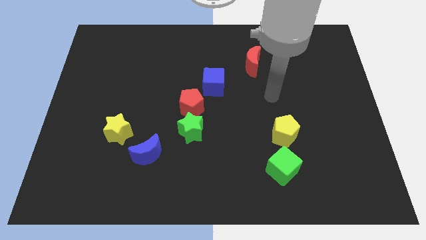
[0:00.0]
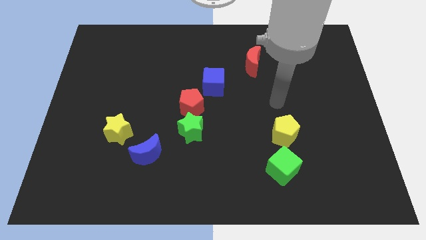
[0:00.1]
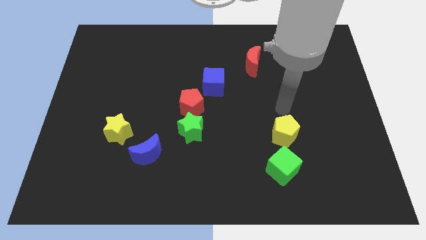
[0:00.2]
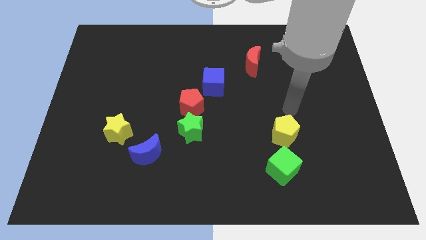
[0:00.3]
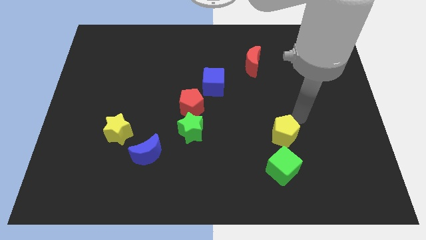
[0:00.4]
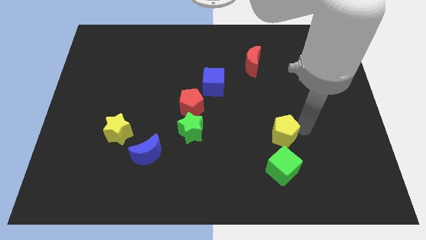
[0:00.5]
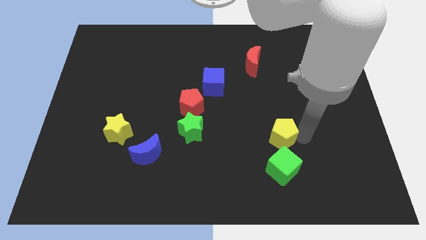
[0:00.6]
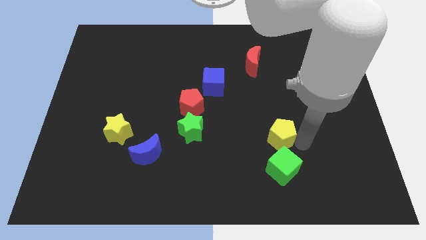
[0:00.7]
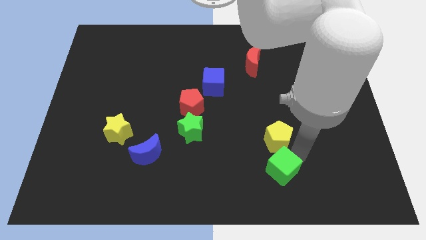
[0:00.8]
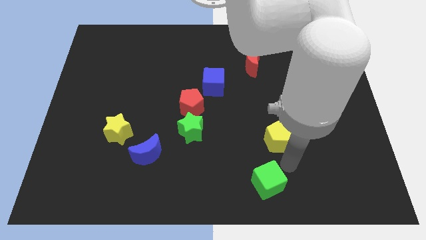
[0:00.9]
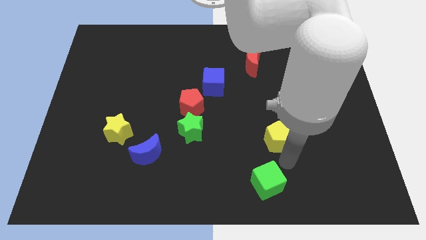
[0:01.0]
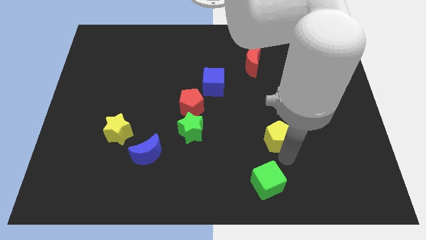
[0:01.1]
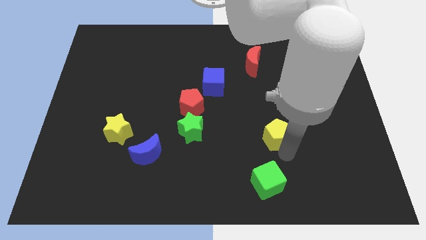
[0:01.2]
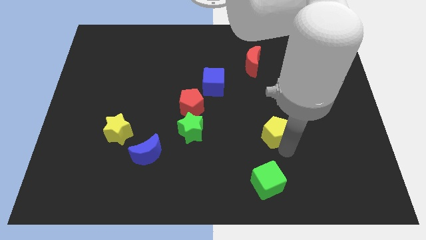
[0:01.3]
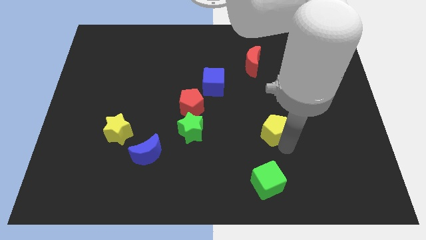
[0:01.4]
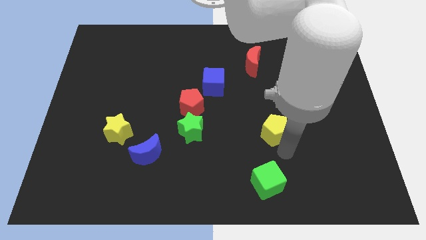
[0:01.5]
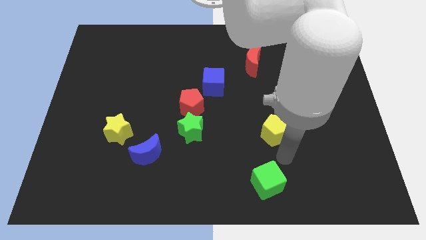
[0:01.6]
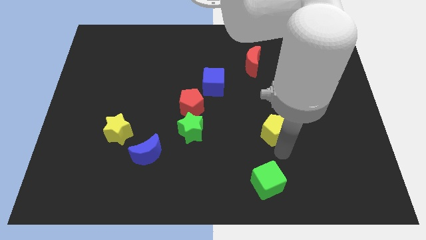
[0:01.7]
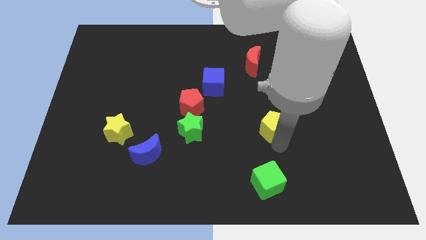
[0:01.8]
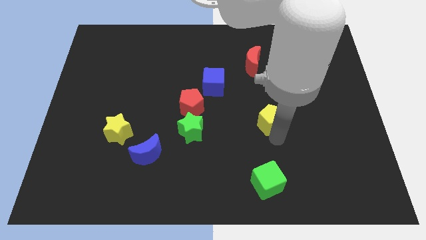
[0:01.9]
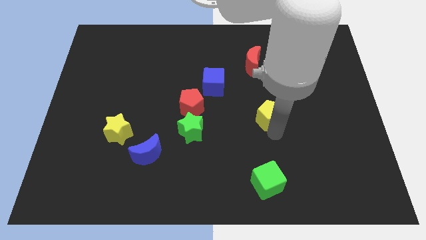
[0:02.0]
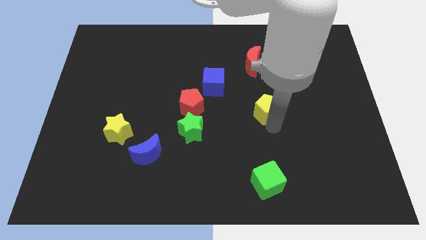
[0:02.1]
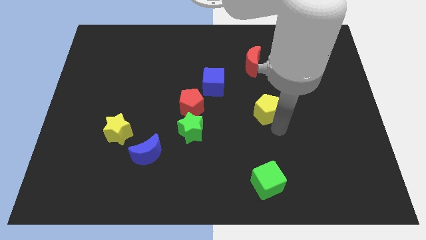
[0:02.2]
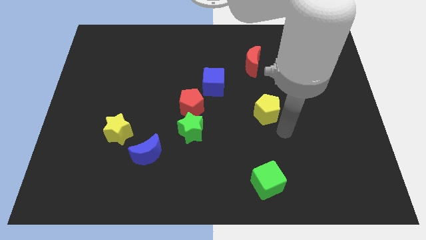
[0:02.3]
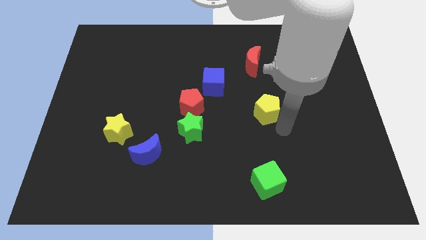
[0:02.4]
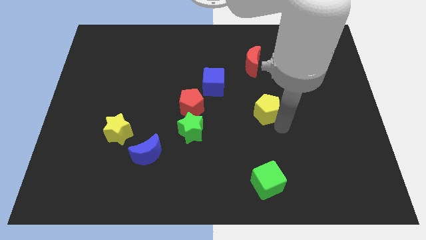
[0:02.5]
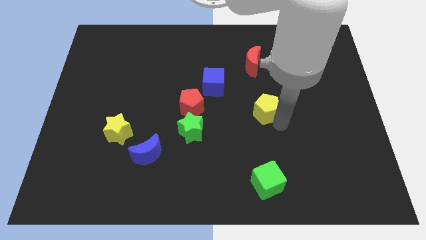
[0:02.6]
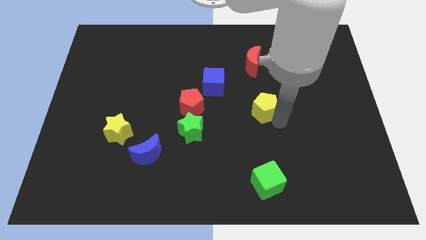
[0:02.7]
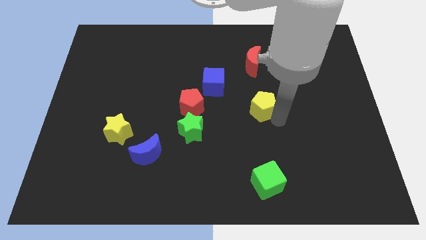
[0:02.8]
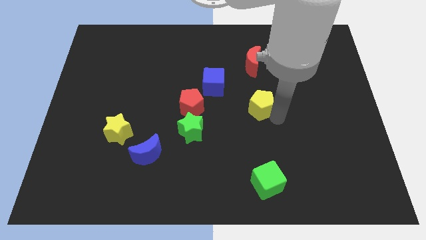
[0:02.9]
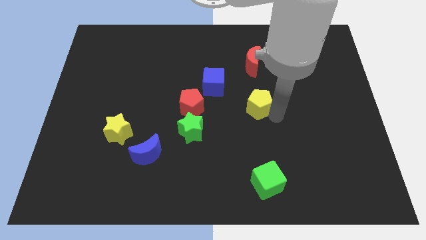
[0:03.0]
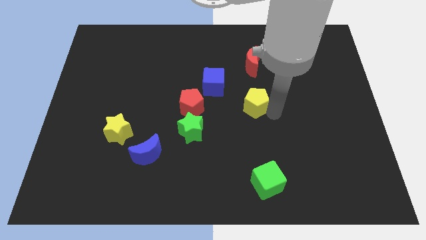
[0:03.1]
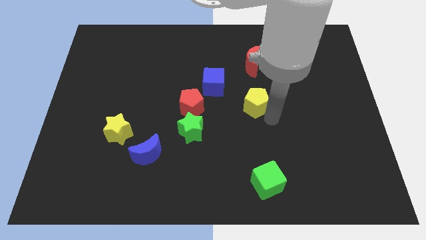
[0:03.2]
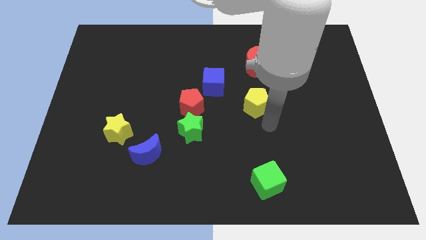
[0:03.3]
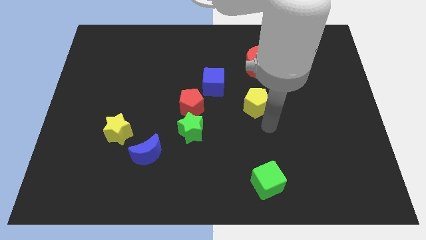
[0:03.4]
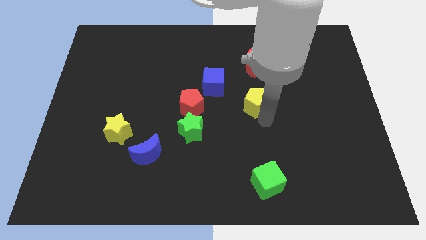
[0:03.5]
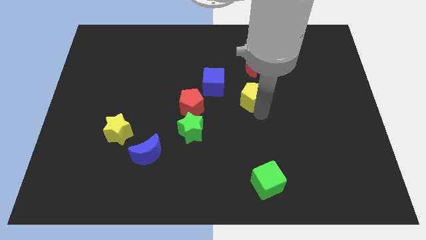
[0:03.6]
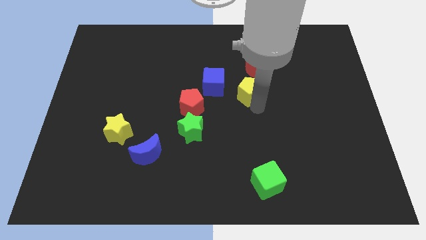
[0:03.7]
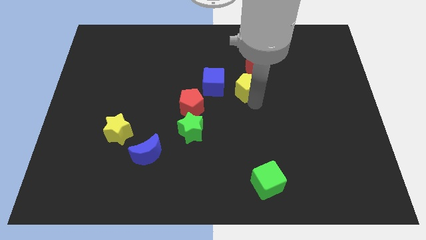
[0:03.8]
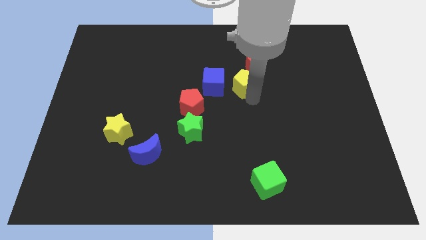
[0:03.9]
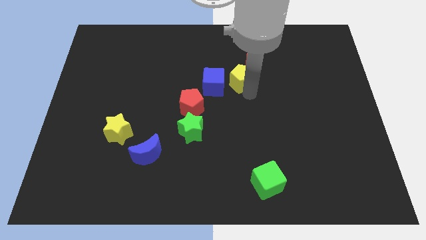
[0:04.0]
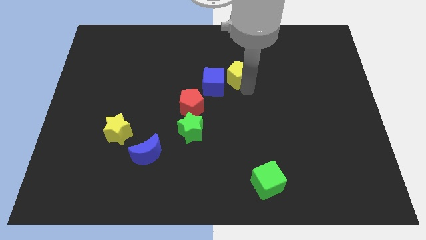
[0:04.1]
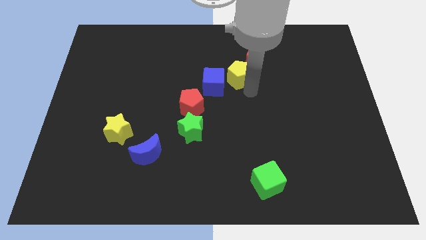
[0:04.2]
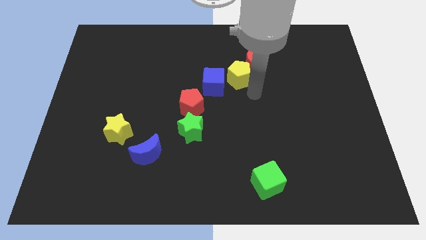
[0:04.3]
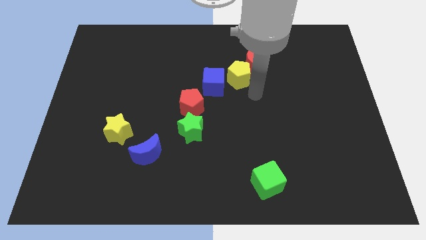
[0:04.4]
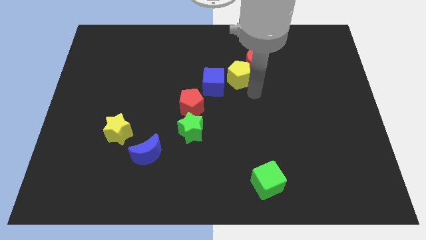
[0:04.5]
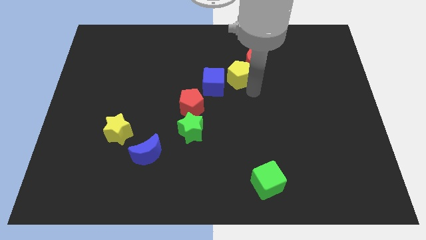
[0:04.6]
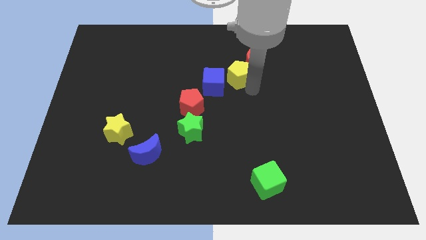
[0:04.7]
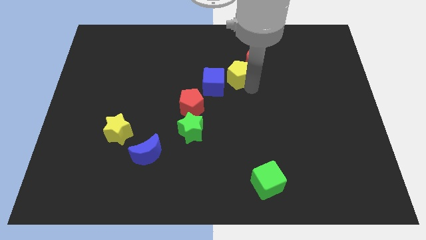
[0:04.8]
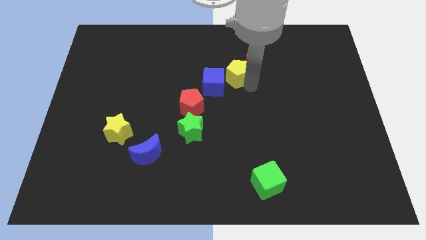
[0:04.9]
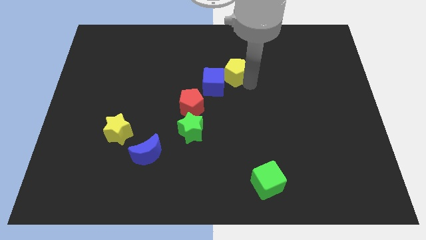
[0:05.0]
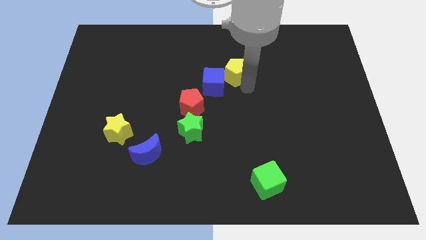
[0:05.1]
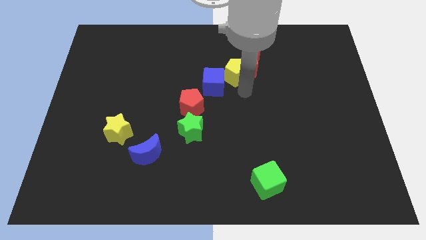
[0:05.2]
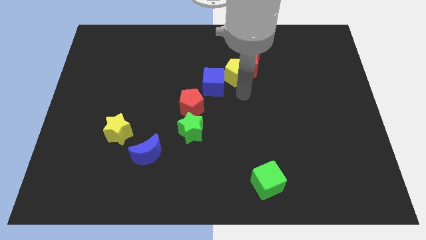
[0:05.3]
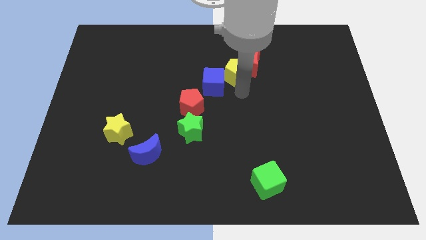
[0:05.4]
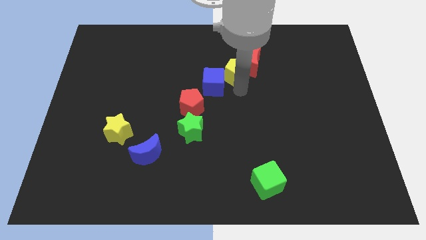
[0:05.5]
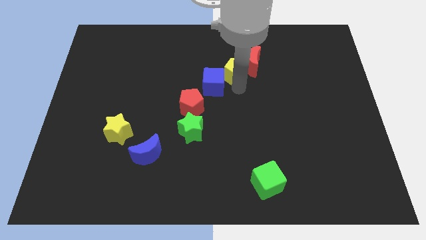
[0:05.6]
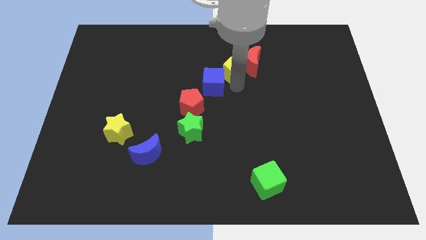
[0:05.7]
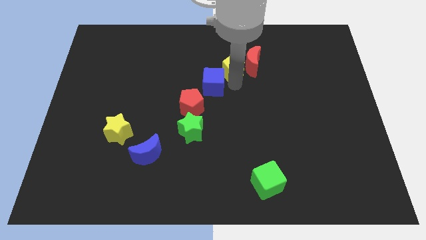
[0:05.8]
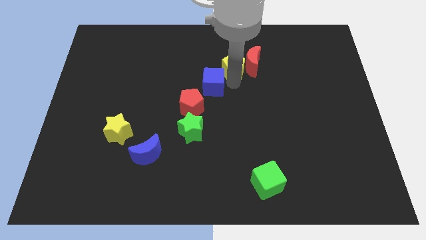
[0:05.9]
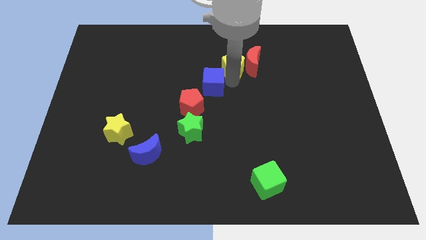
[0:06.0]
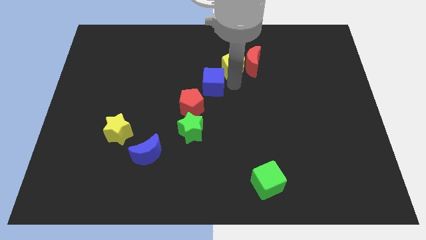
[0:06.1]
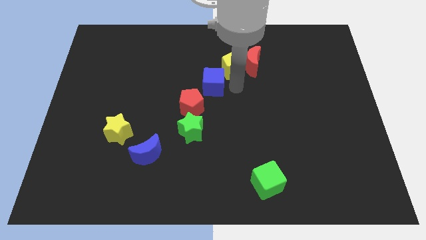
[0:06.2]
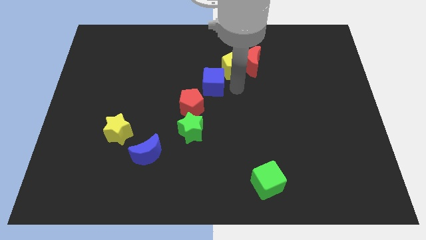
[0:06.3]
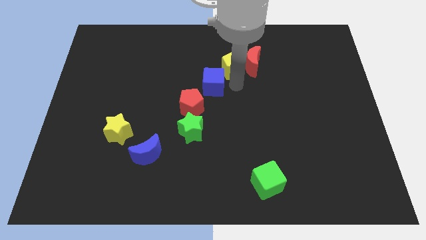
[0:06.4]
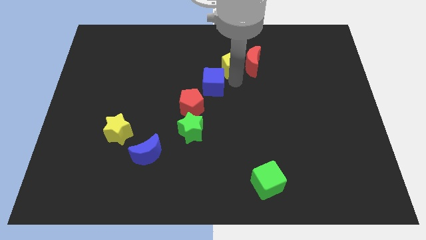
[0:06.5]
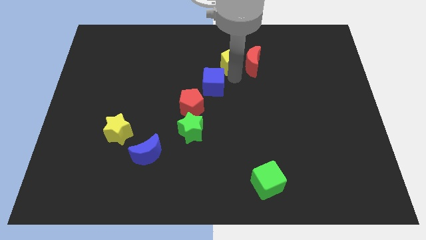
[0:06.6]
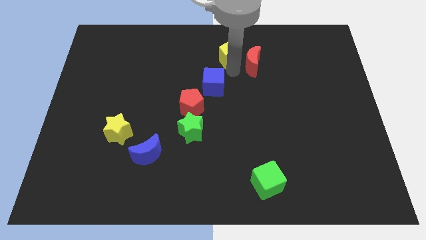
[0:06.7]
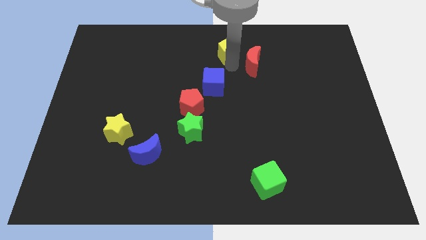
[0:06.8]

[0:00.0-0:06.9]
push the yellow pentagon to the top side

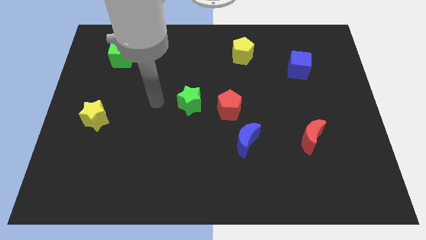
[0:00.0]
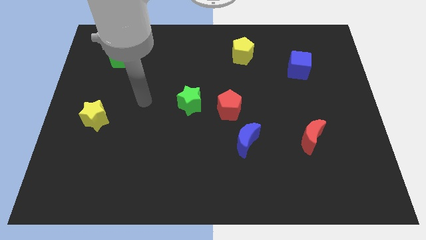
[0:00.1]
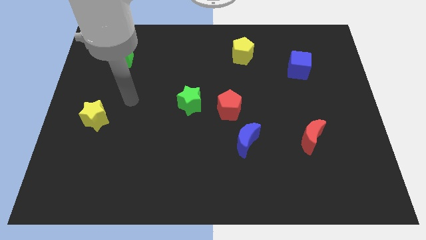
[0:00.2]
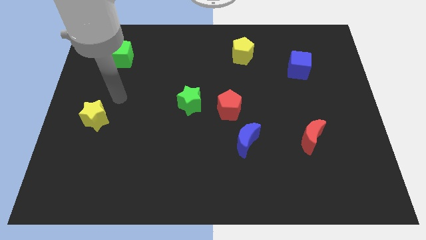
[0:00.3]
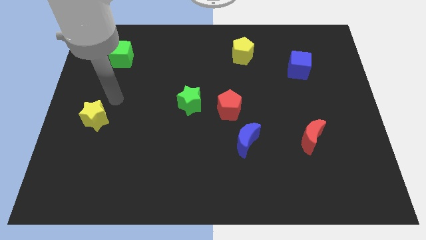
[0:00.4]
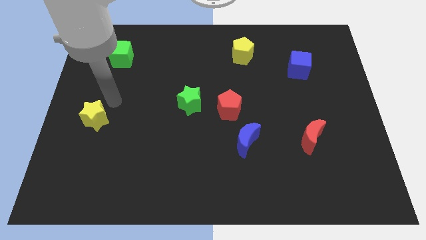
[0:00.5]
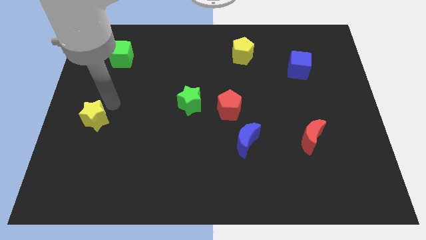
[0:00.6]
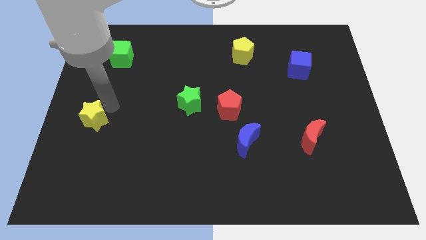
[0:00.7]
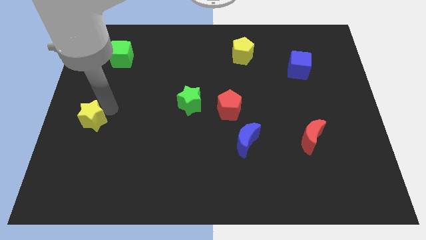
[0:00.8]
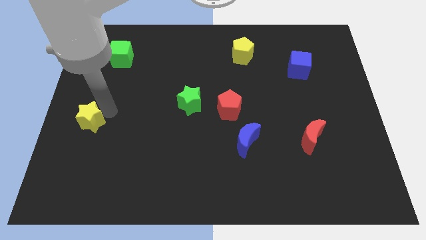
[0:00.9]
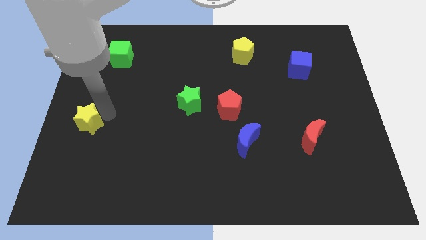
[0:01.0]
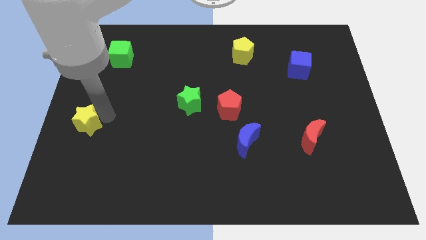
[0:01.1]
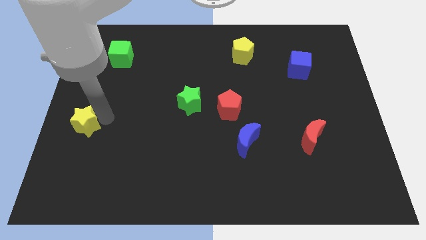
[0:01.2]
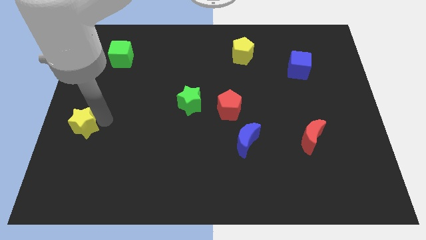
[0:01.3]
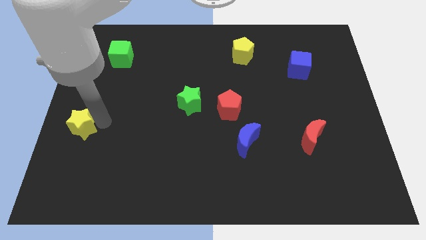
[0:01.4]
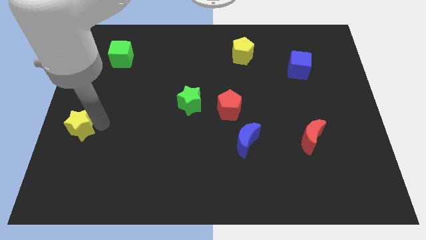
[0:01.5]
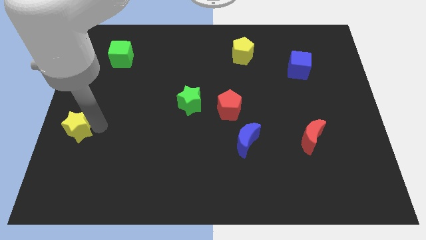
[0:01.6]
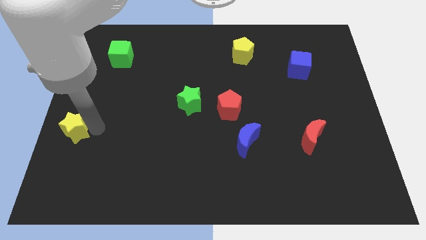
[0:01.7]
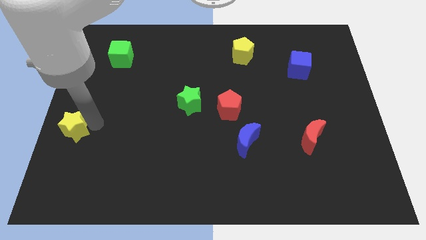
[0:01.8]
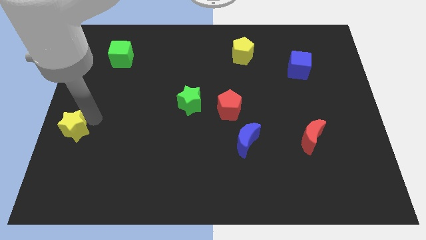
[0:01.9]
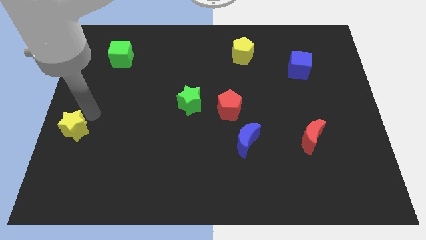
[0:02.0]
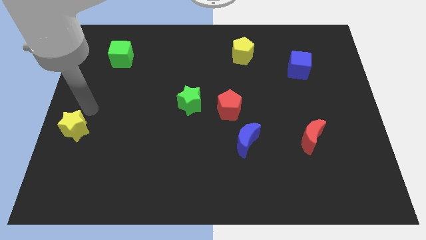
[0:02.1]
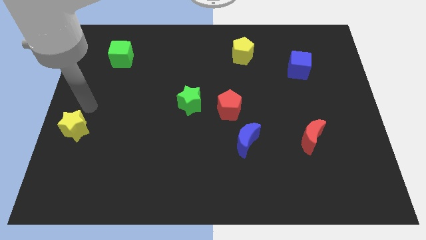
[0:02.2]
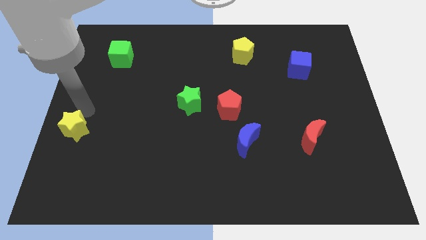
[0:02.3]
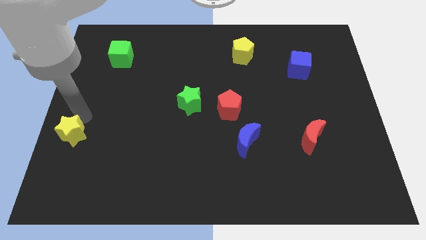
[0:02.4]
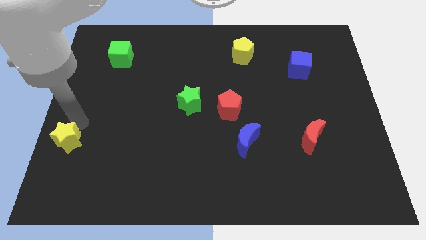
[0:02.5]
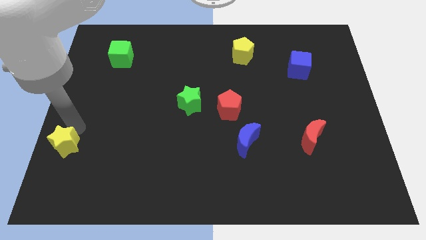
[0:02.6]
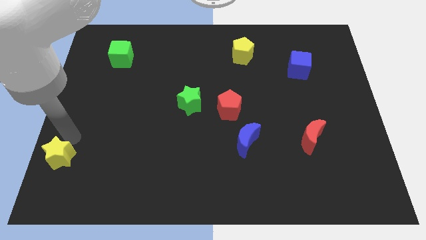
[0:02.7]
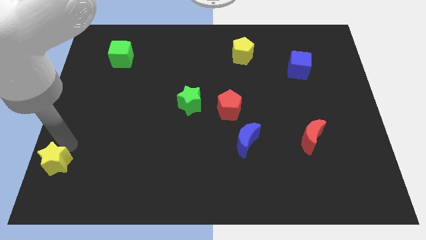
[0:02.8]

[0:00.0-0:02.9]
slide the yellow star to the bottom left corner
